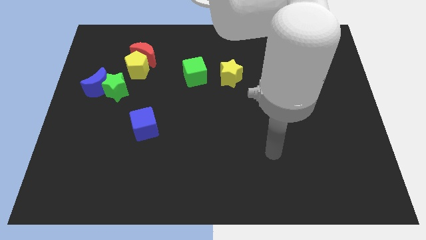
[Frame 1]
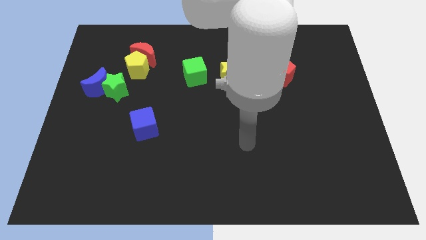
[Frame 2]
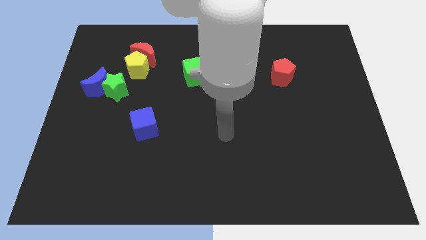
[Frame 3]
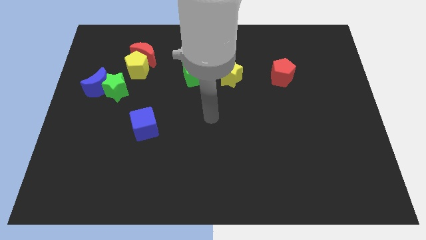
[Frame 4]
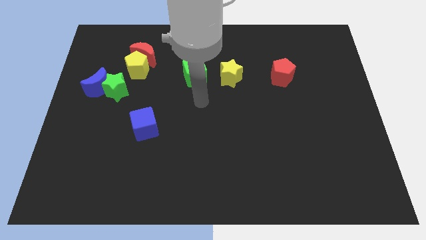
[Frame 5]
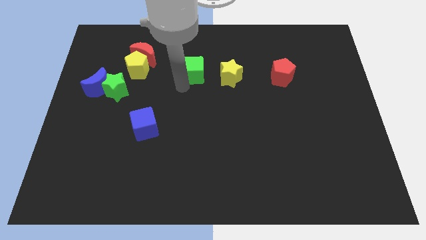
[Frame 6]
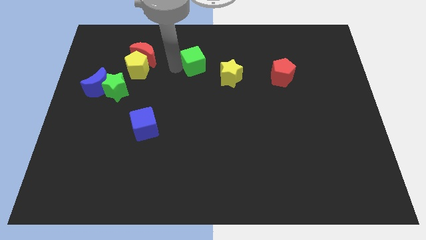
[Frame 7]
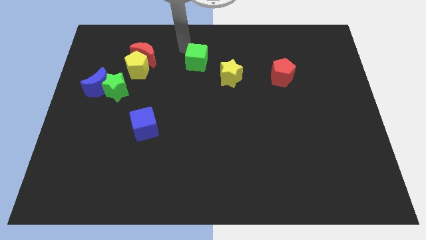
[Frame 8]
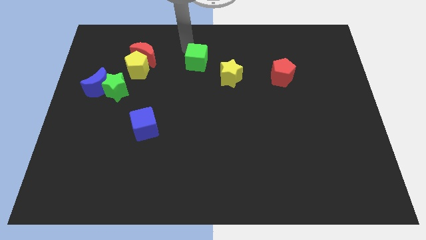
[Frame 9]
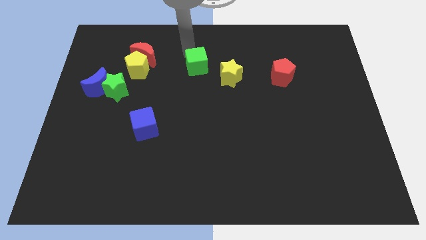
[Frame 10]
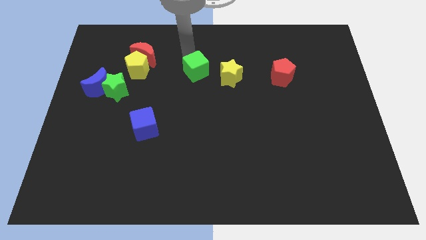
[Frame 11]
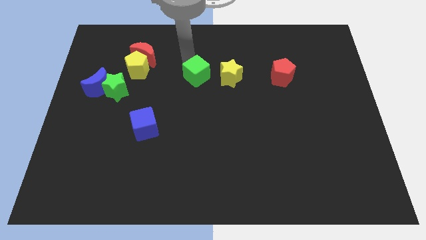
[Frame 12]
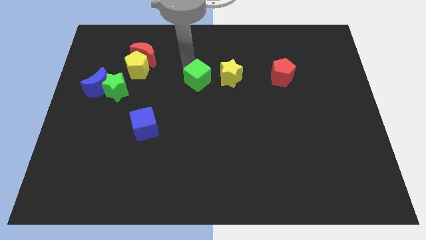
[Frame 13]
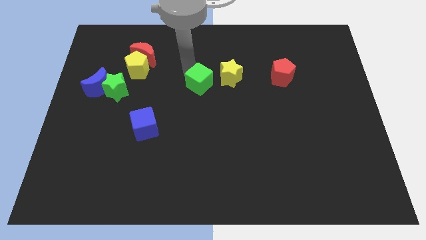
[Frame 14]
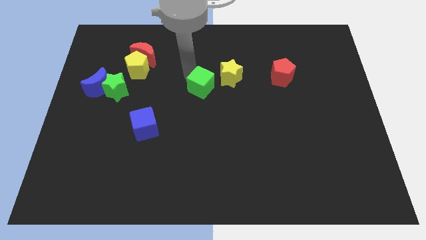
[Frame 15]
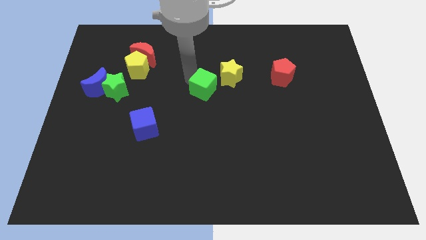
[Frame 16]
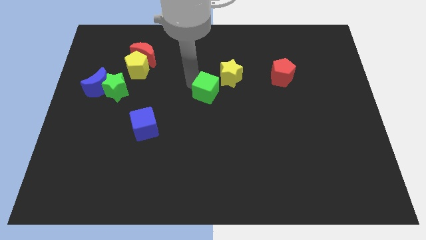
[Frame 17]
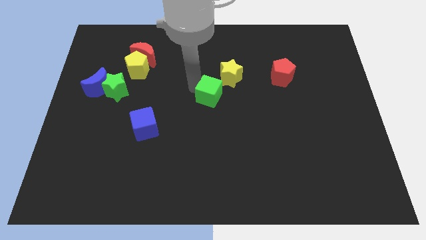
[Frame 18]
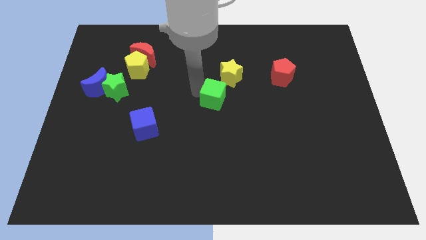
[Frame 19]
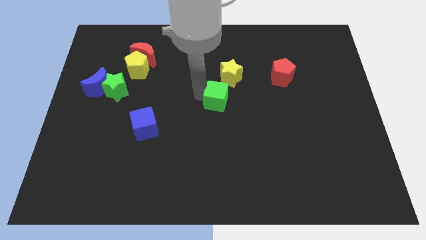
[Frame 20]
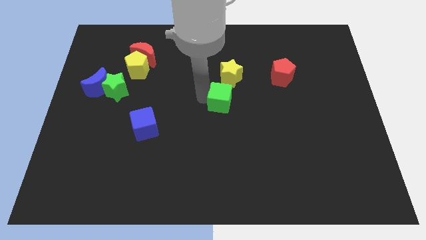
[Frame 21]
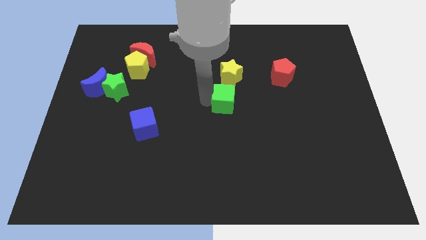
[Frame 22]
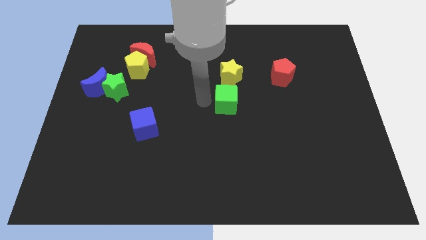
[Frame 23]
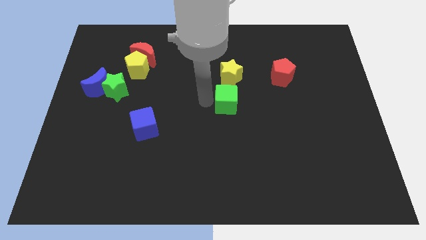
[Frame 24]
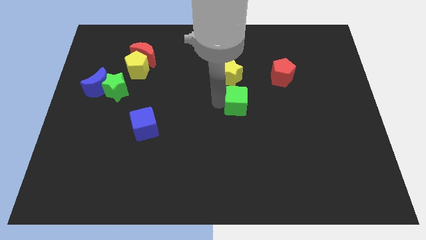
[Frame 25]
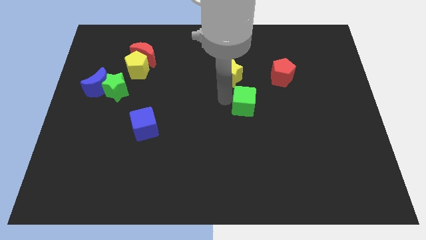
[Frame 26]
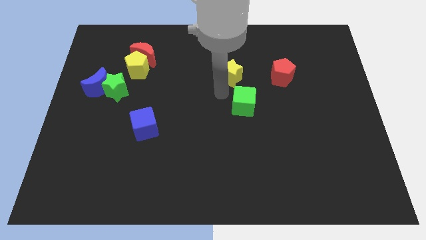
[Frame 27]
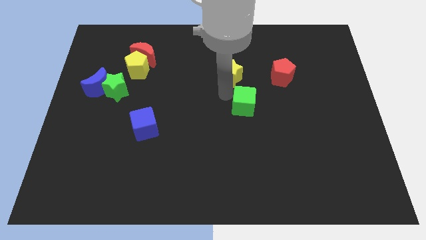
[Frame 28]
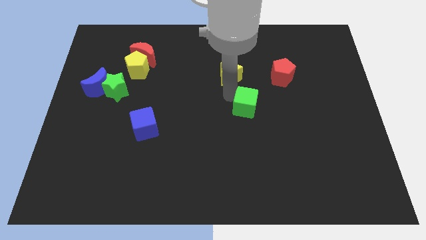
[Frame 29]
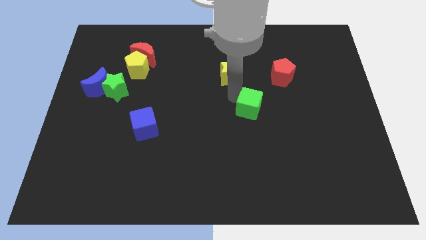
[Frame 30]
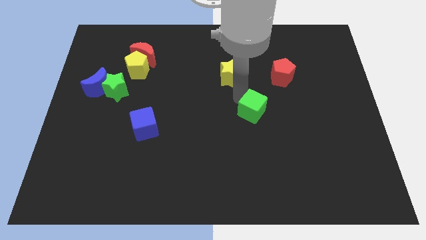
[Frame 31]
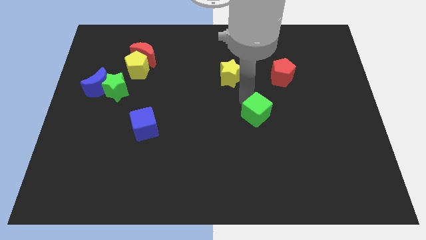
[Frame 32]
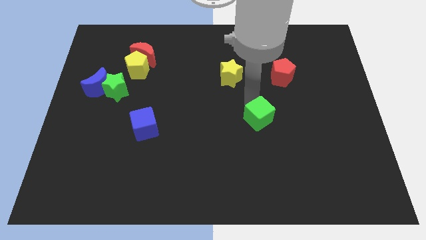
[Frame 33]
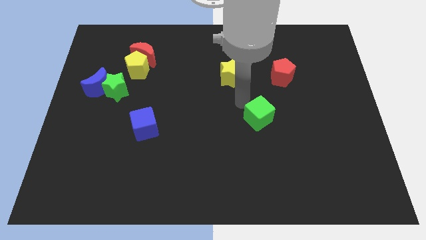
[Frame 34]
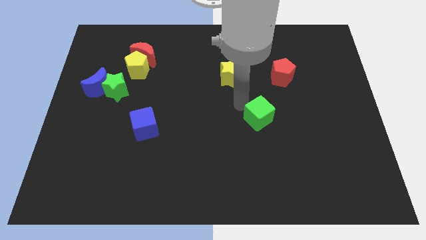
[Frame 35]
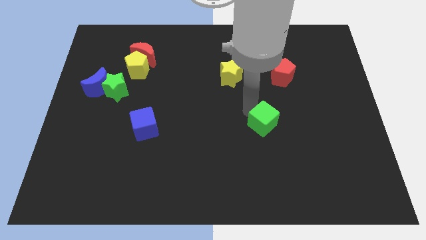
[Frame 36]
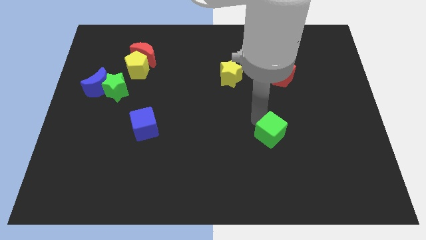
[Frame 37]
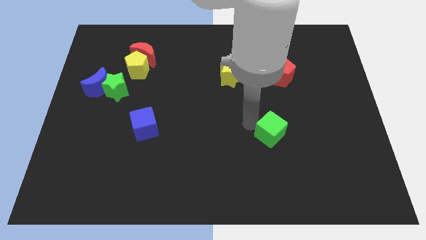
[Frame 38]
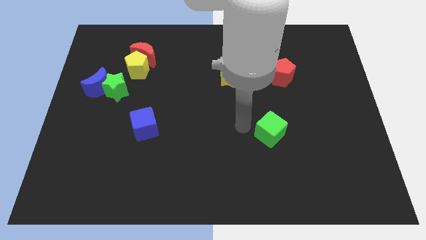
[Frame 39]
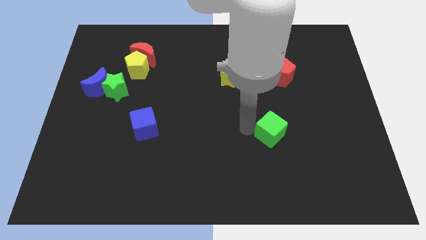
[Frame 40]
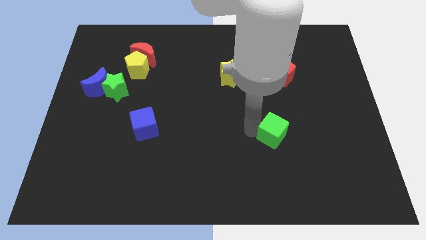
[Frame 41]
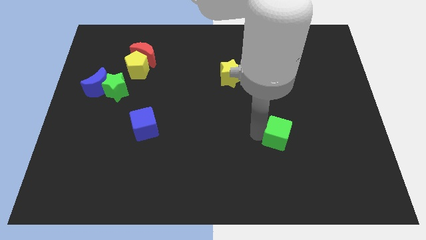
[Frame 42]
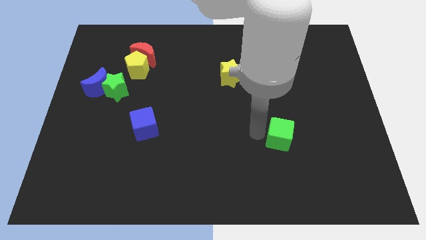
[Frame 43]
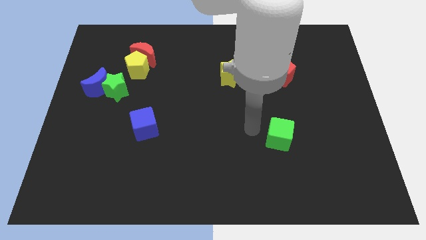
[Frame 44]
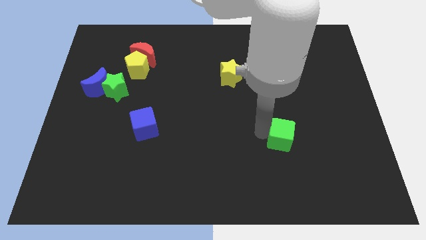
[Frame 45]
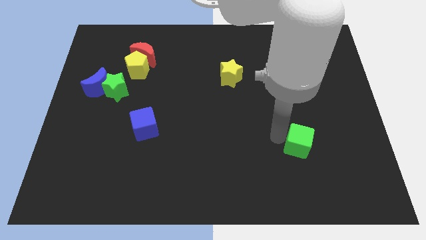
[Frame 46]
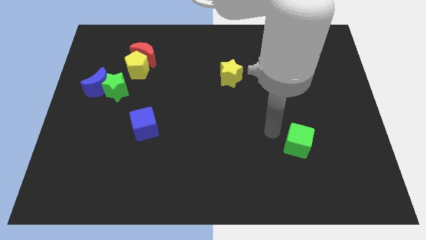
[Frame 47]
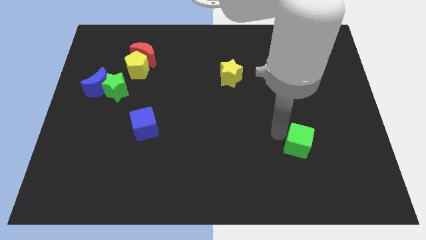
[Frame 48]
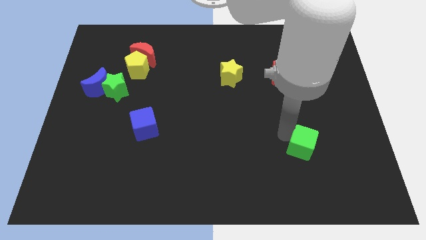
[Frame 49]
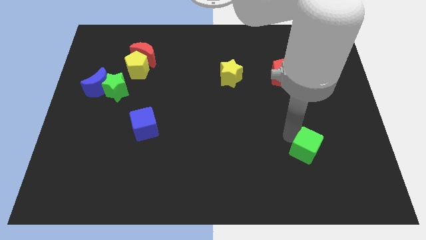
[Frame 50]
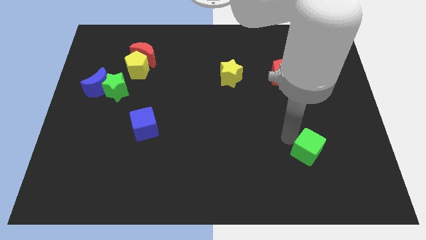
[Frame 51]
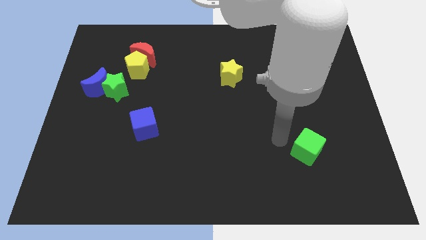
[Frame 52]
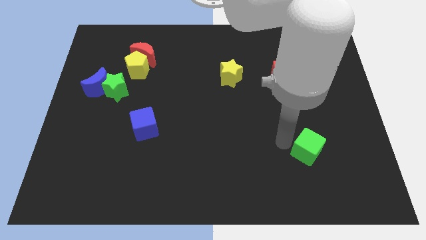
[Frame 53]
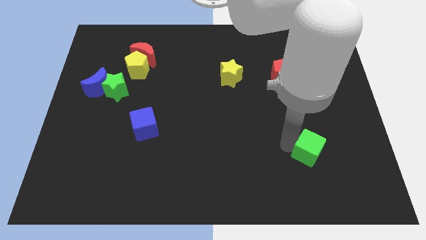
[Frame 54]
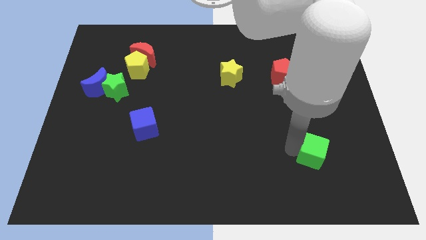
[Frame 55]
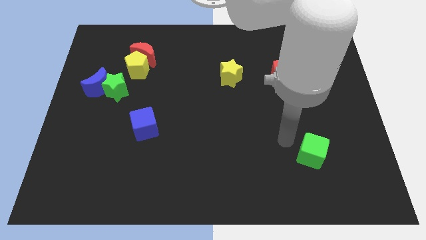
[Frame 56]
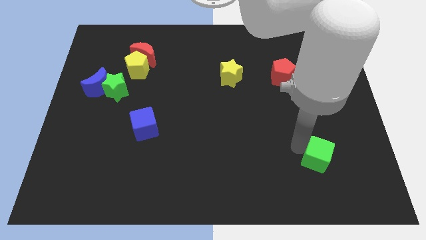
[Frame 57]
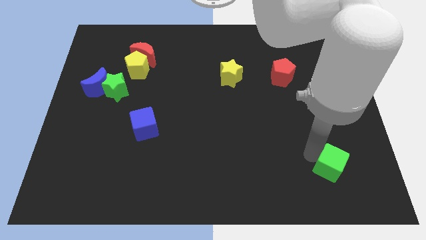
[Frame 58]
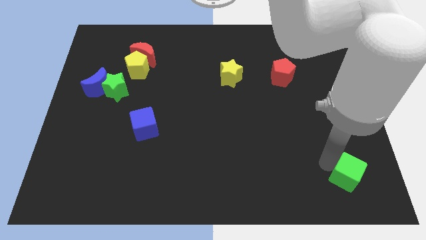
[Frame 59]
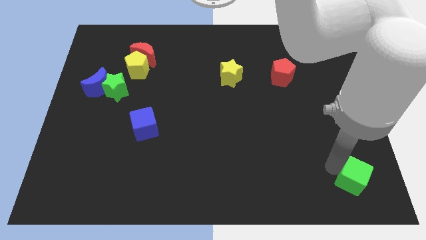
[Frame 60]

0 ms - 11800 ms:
put the green cube to the bottom right

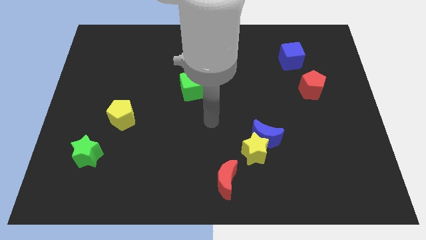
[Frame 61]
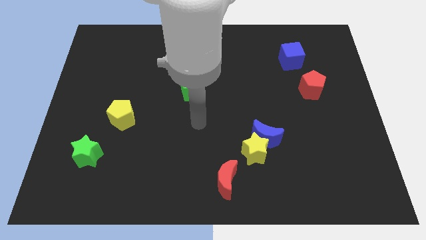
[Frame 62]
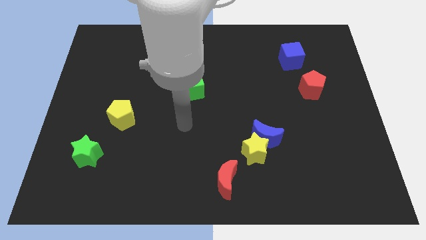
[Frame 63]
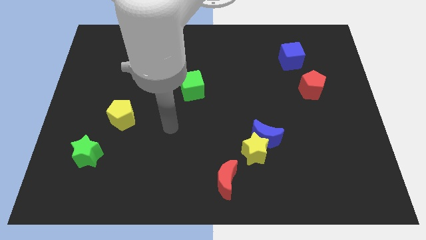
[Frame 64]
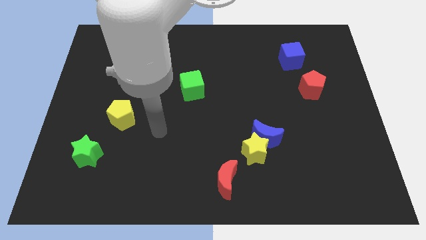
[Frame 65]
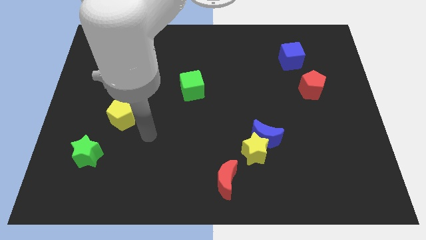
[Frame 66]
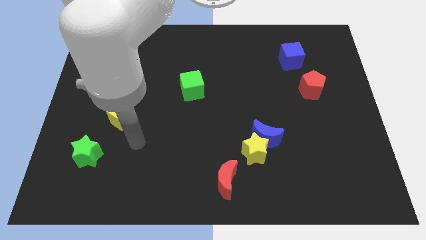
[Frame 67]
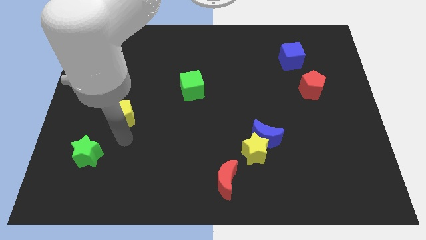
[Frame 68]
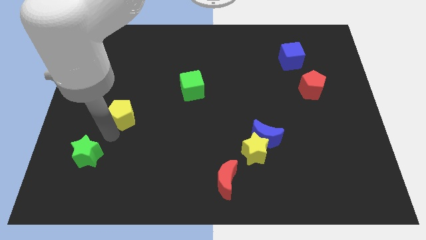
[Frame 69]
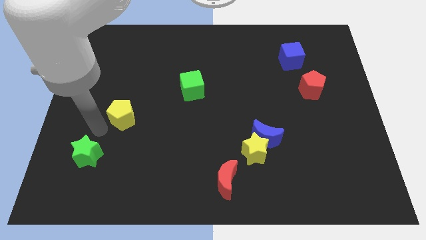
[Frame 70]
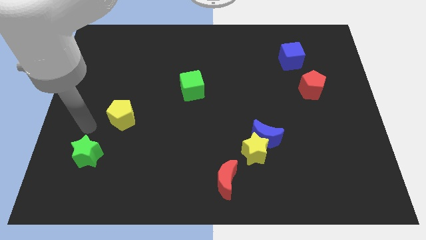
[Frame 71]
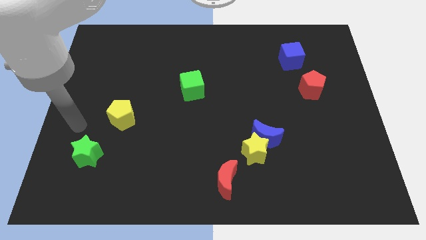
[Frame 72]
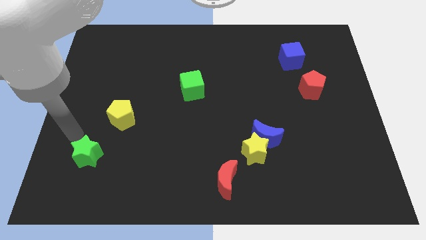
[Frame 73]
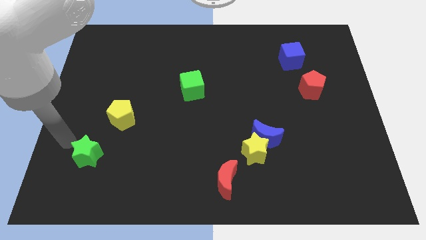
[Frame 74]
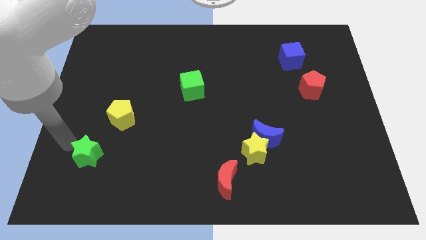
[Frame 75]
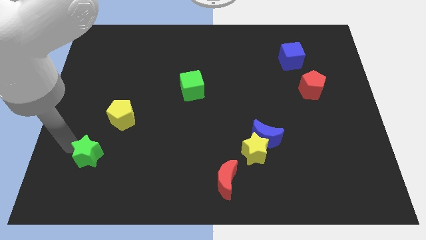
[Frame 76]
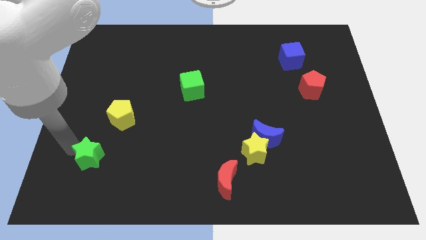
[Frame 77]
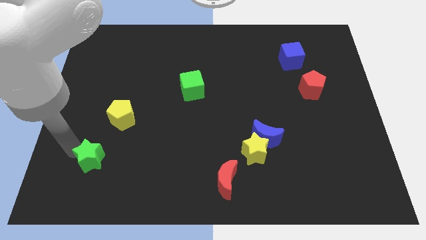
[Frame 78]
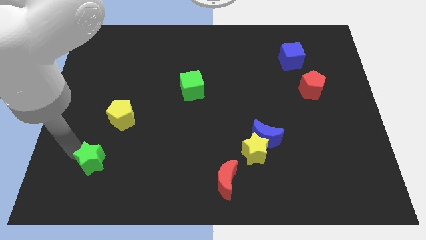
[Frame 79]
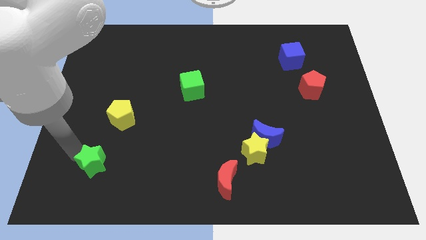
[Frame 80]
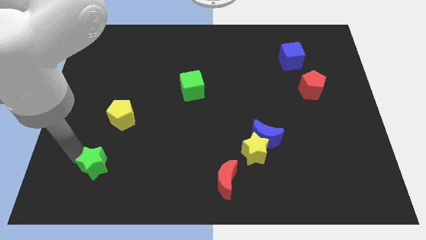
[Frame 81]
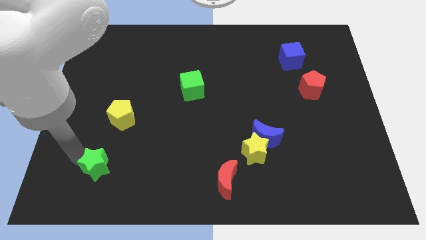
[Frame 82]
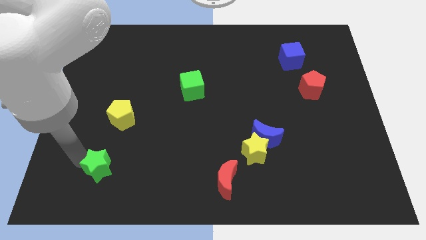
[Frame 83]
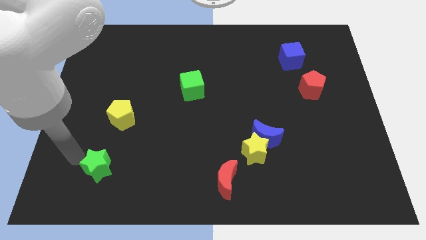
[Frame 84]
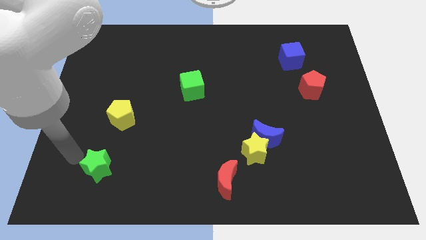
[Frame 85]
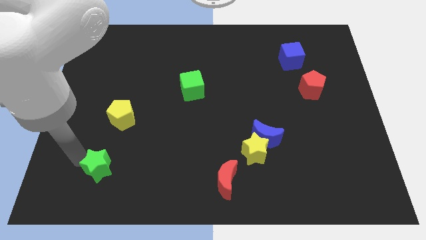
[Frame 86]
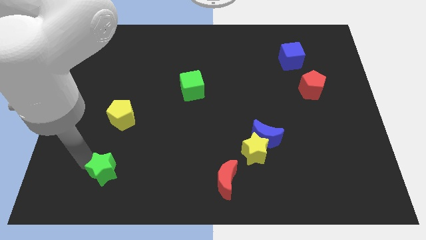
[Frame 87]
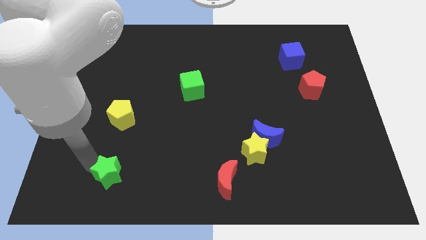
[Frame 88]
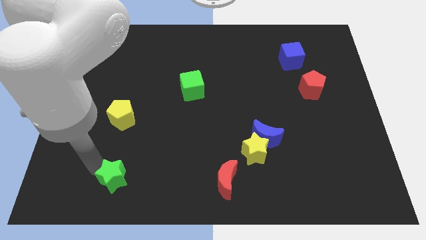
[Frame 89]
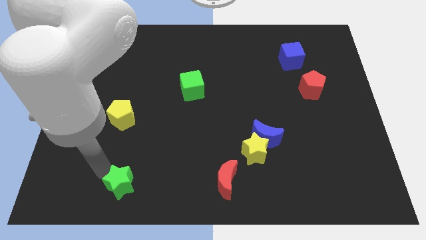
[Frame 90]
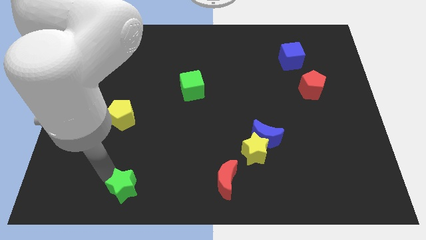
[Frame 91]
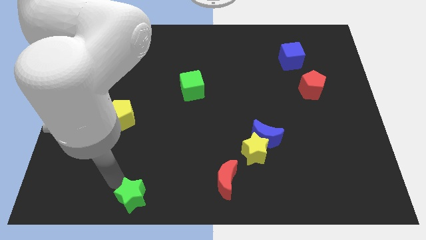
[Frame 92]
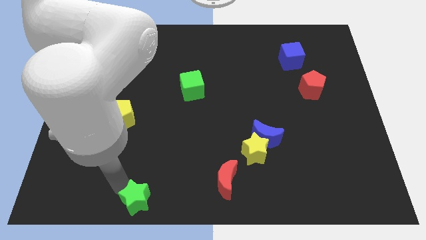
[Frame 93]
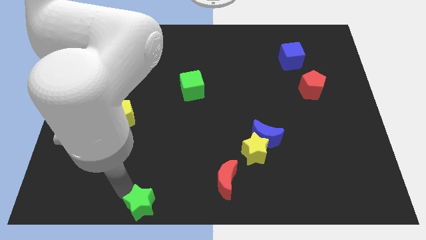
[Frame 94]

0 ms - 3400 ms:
push the green star to the bottom side
